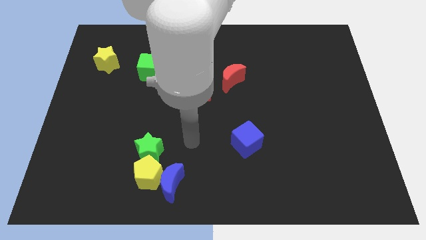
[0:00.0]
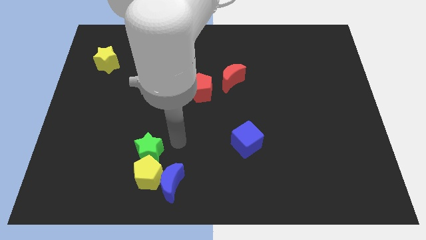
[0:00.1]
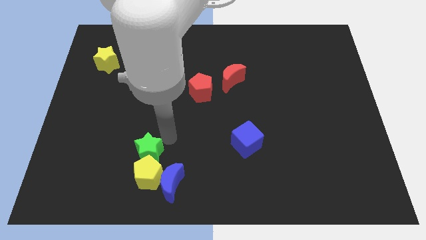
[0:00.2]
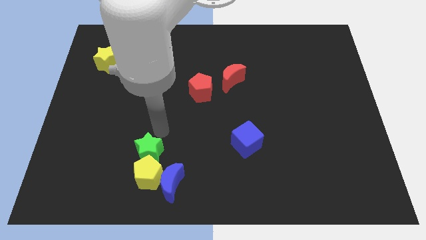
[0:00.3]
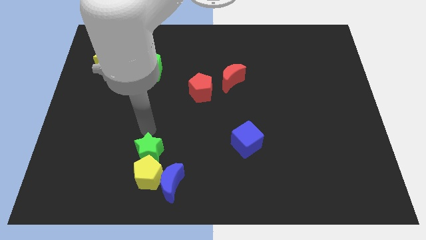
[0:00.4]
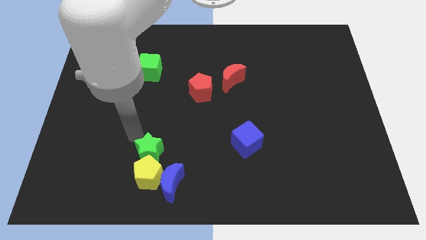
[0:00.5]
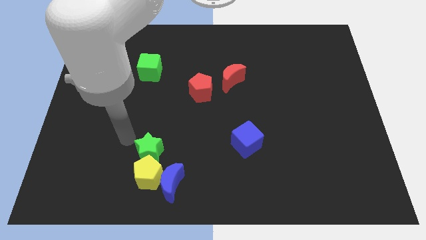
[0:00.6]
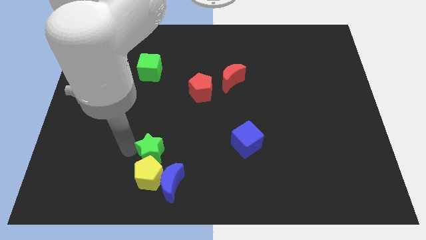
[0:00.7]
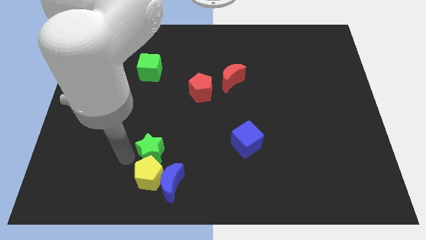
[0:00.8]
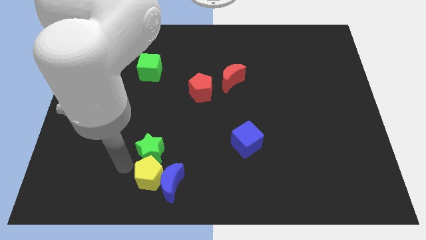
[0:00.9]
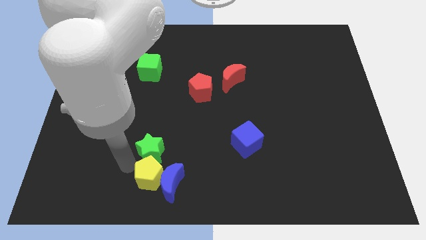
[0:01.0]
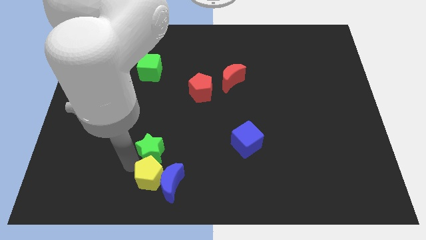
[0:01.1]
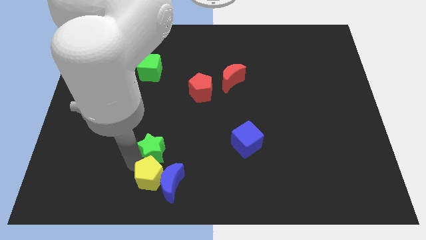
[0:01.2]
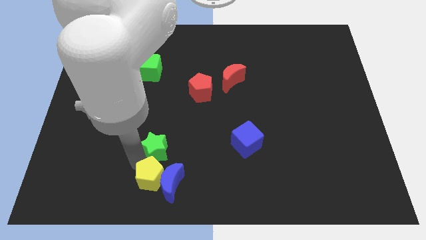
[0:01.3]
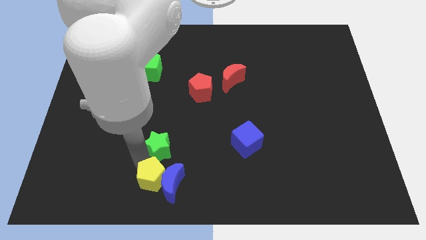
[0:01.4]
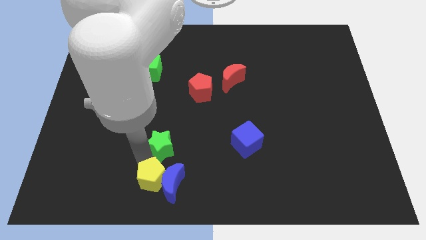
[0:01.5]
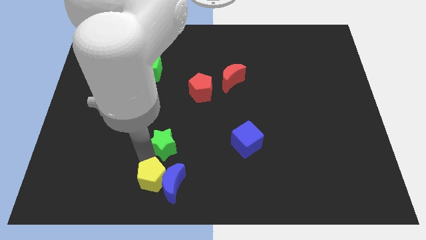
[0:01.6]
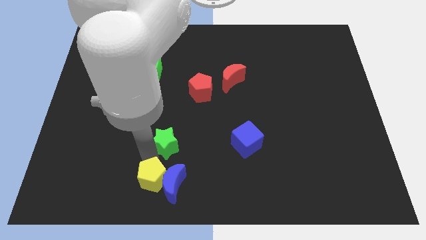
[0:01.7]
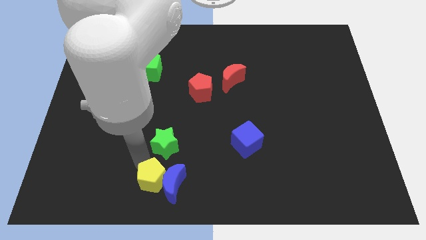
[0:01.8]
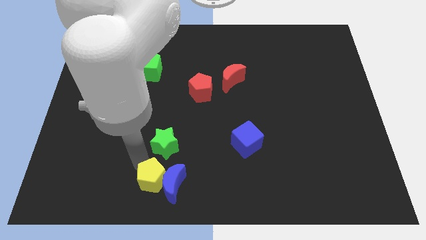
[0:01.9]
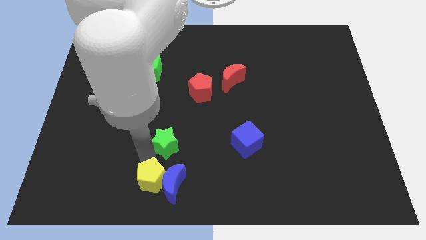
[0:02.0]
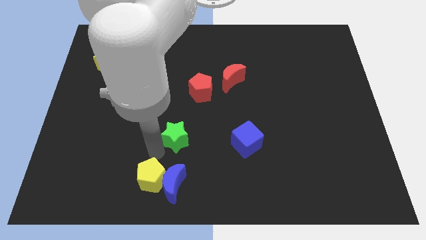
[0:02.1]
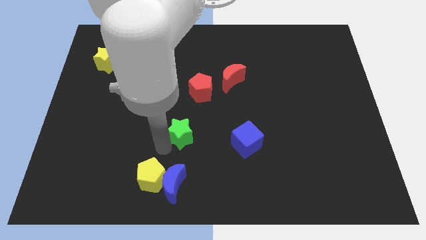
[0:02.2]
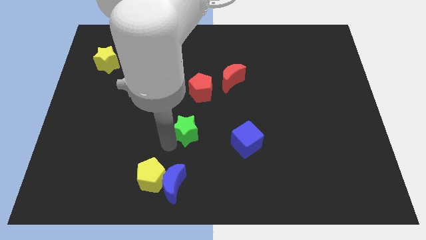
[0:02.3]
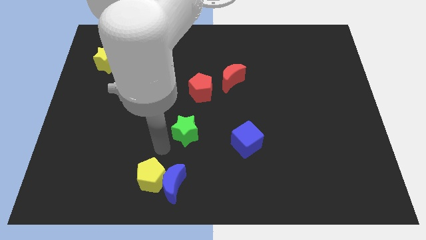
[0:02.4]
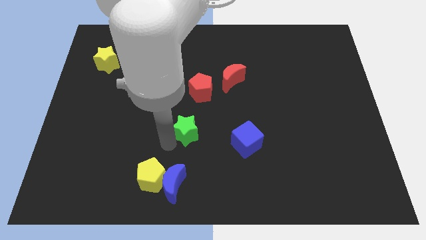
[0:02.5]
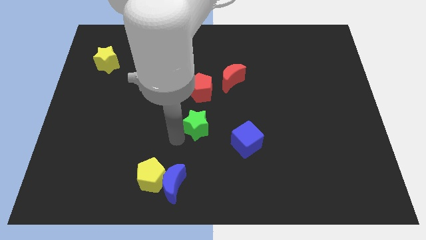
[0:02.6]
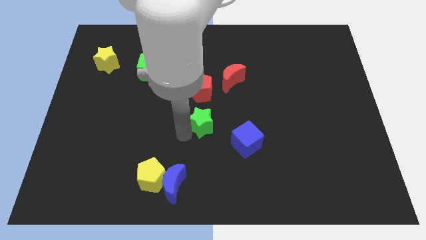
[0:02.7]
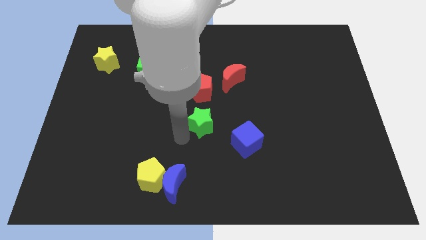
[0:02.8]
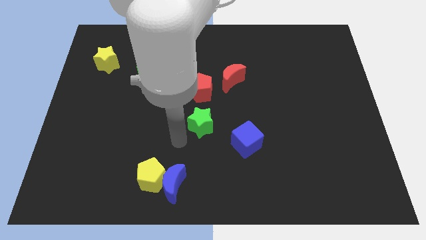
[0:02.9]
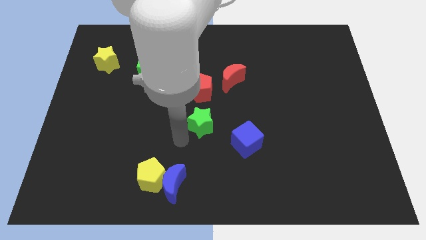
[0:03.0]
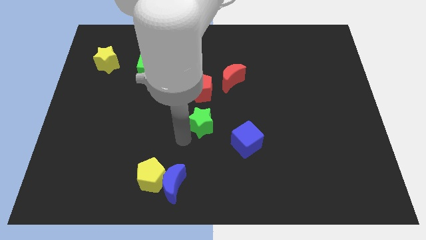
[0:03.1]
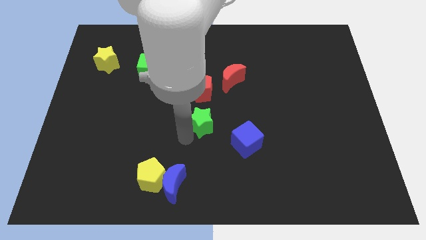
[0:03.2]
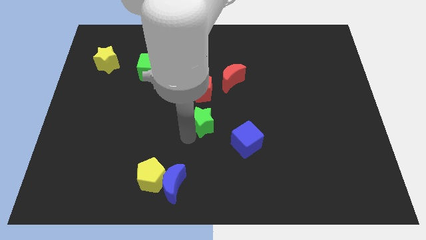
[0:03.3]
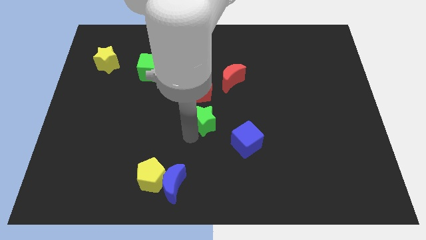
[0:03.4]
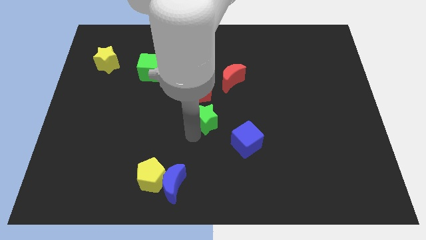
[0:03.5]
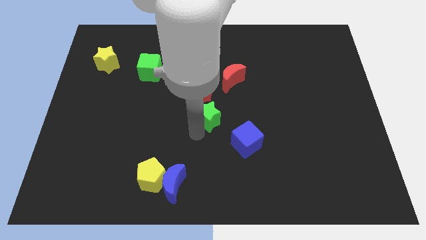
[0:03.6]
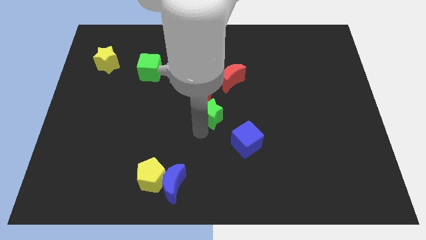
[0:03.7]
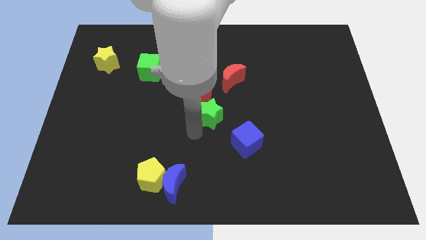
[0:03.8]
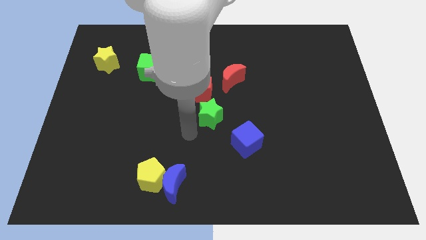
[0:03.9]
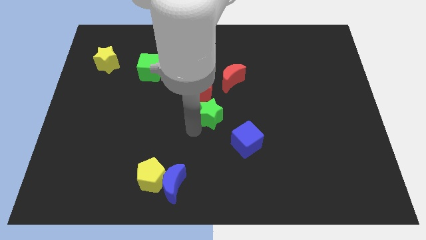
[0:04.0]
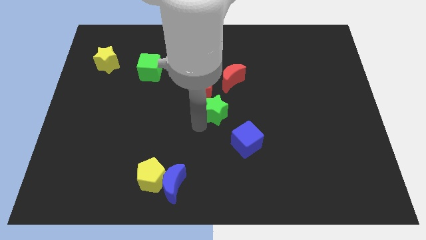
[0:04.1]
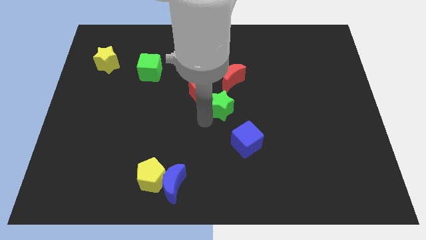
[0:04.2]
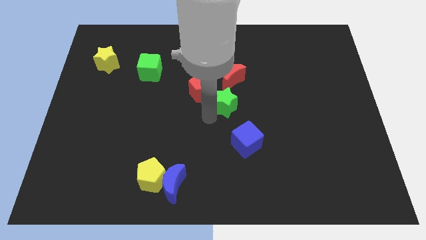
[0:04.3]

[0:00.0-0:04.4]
push the green star diagonally upwards and right

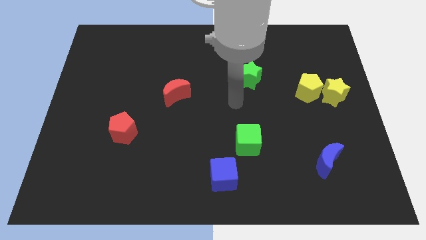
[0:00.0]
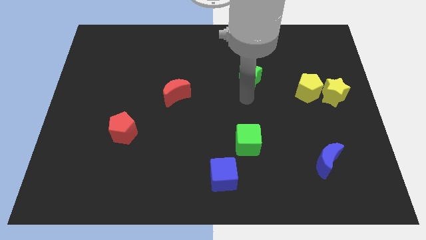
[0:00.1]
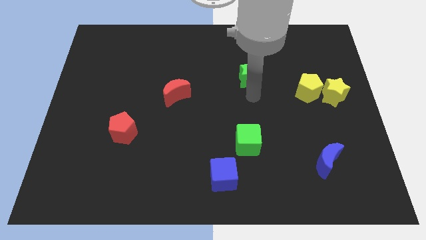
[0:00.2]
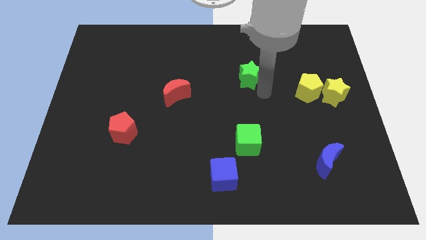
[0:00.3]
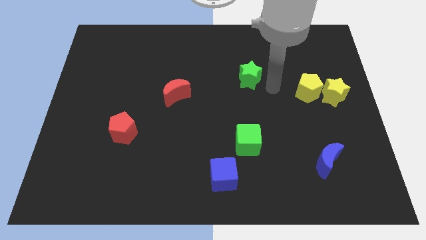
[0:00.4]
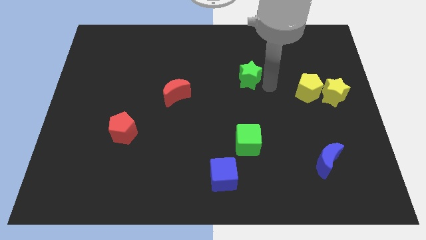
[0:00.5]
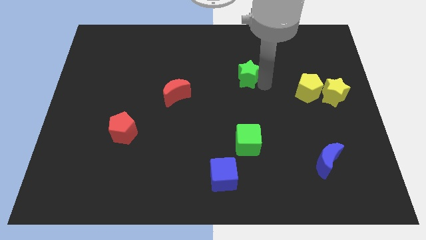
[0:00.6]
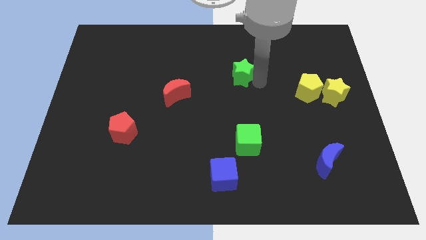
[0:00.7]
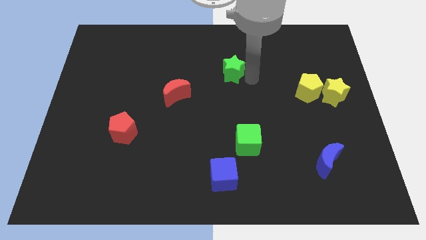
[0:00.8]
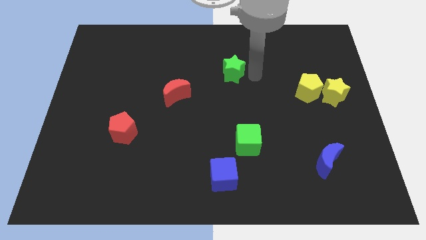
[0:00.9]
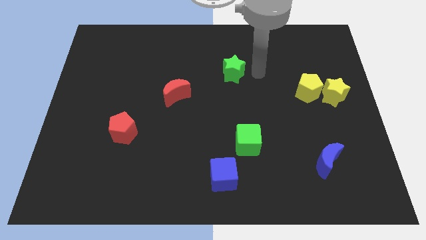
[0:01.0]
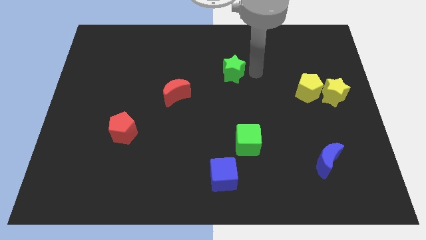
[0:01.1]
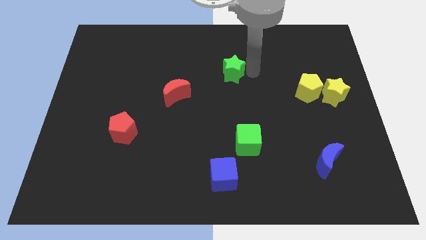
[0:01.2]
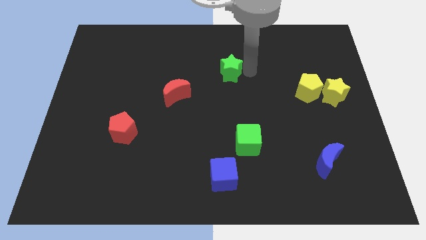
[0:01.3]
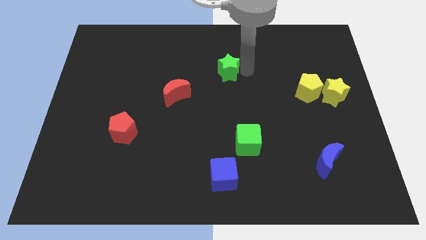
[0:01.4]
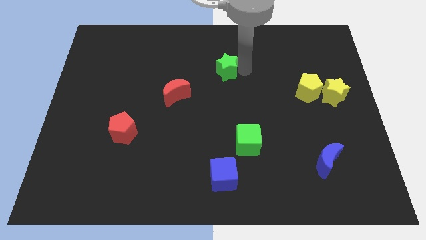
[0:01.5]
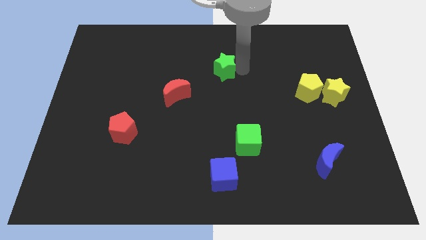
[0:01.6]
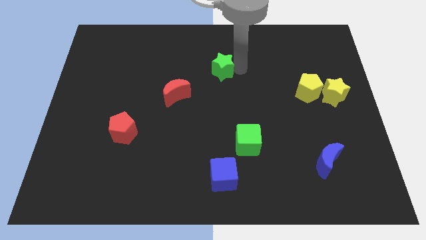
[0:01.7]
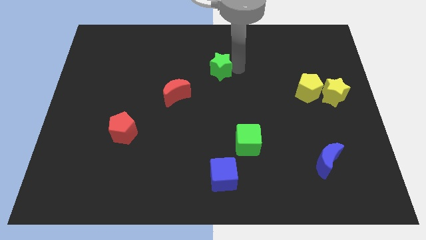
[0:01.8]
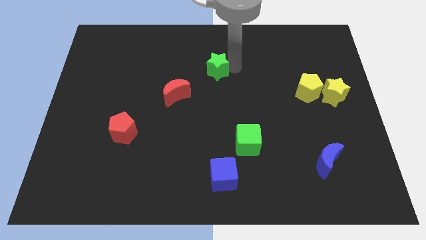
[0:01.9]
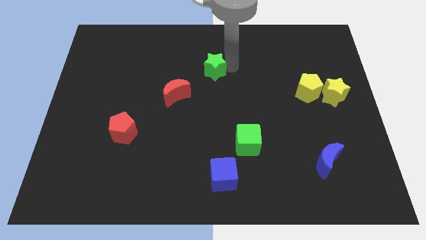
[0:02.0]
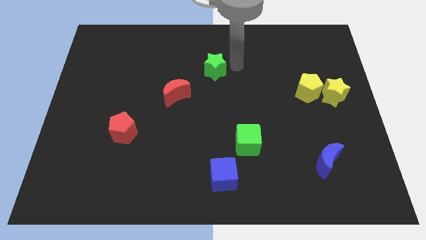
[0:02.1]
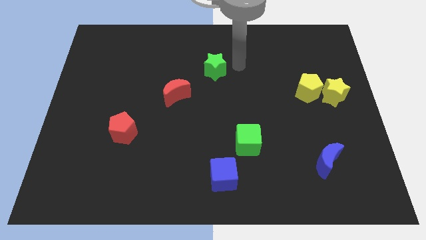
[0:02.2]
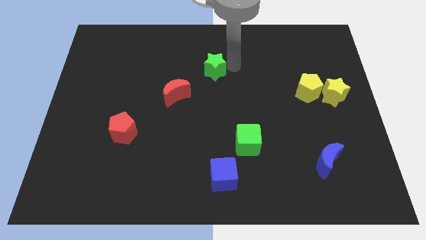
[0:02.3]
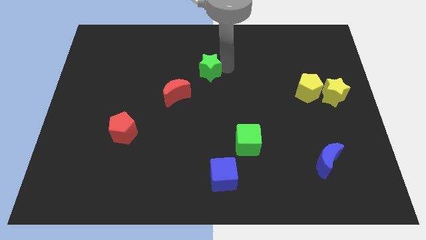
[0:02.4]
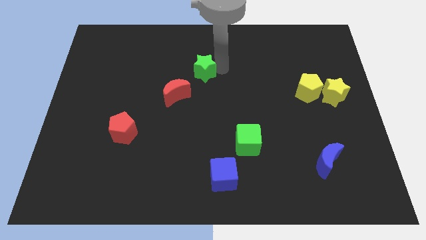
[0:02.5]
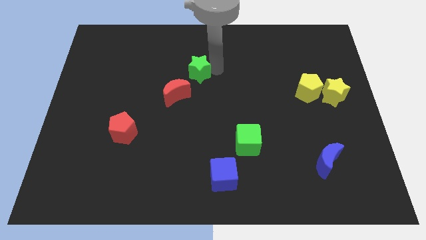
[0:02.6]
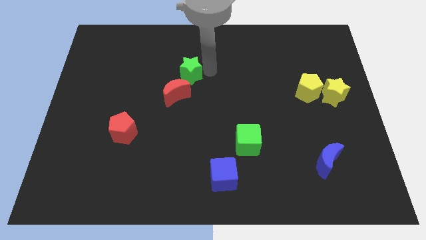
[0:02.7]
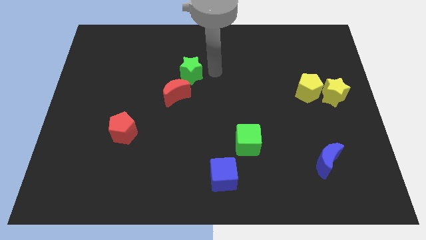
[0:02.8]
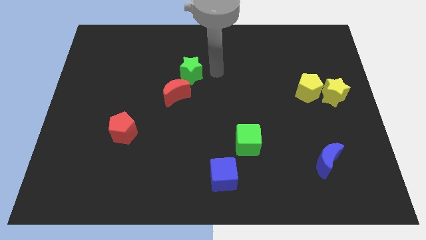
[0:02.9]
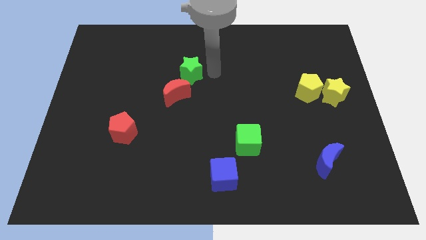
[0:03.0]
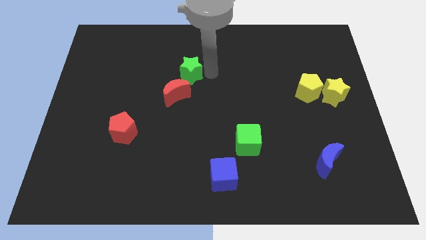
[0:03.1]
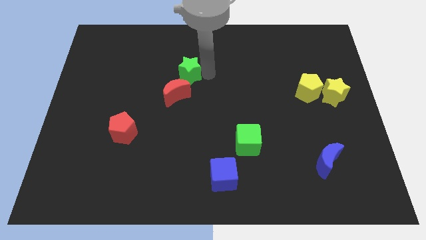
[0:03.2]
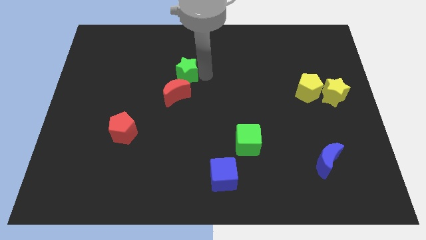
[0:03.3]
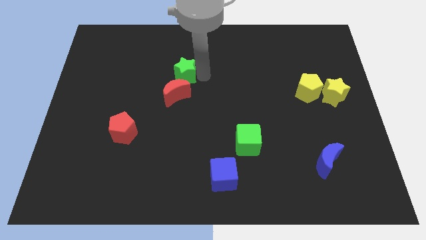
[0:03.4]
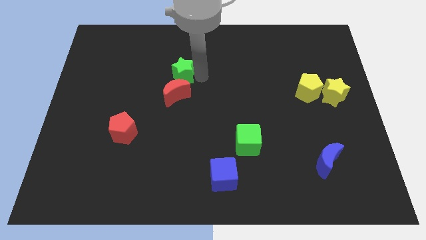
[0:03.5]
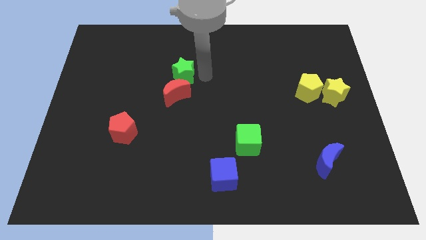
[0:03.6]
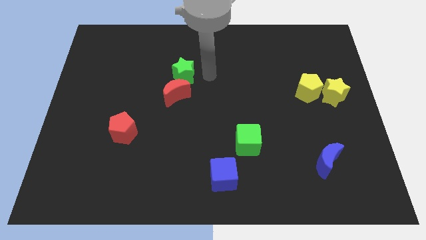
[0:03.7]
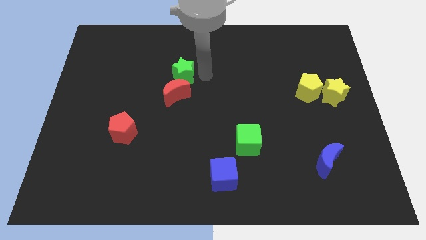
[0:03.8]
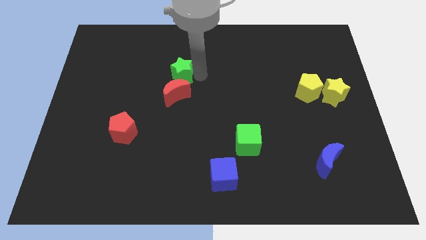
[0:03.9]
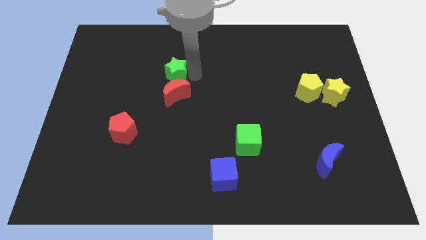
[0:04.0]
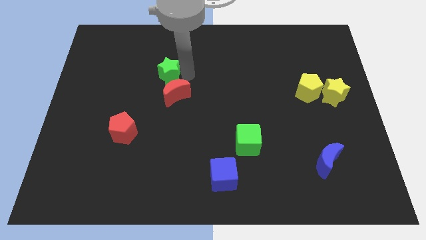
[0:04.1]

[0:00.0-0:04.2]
slide the green star left
